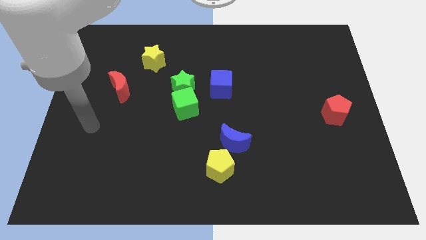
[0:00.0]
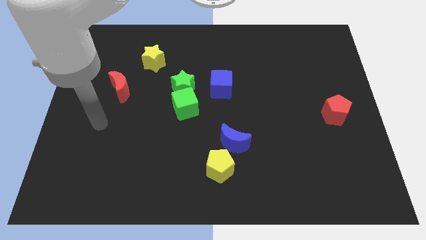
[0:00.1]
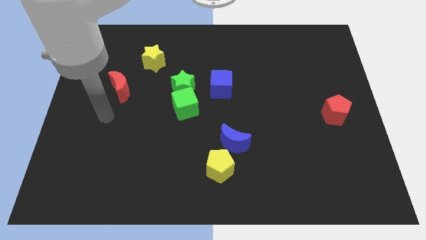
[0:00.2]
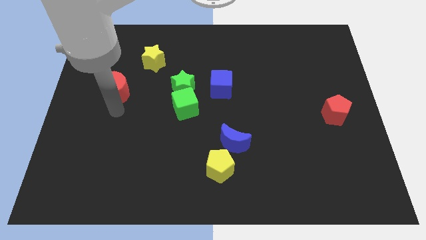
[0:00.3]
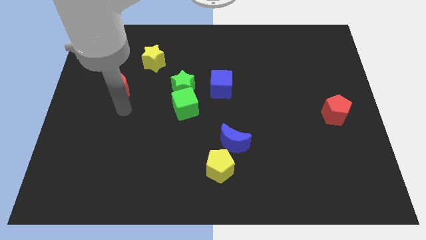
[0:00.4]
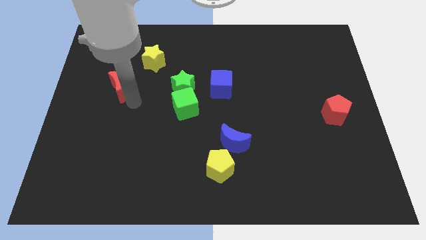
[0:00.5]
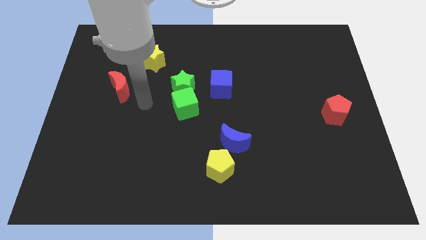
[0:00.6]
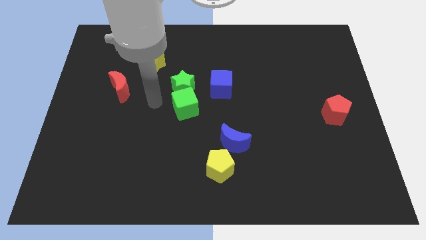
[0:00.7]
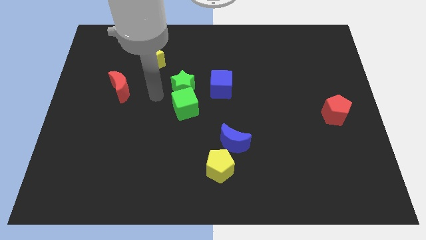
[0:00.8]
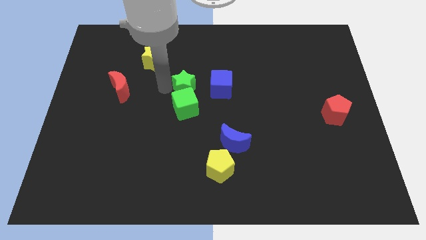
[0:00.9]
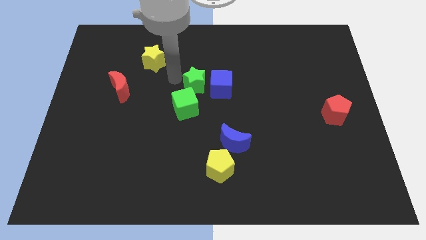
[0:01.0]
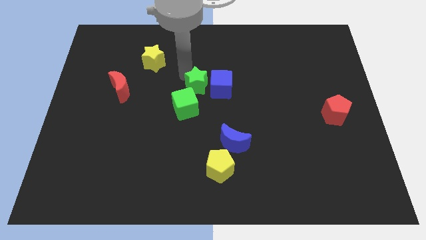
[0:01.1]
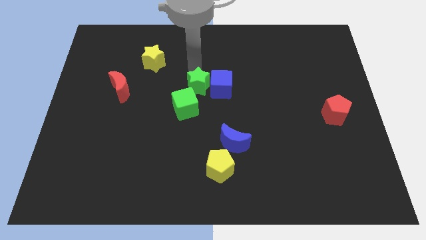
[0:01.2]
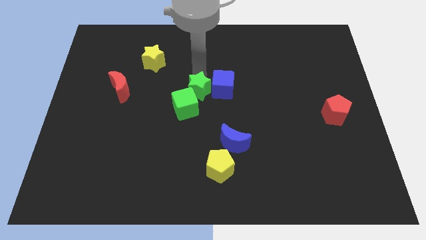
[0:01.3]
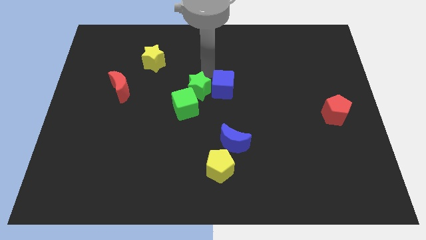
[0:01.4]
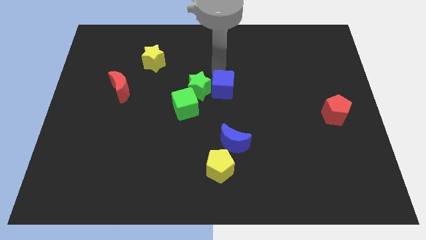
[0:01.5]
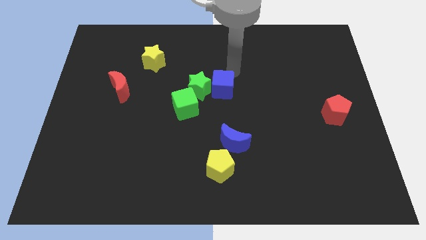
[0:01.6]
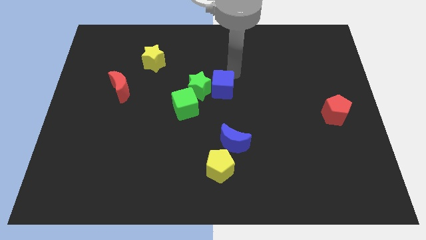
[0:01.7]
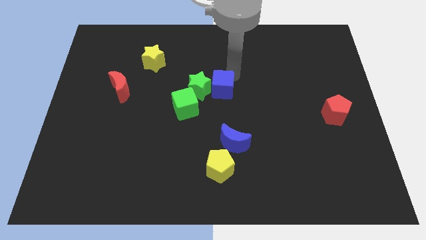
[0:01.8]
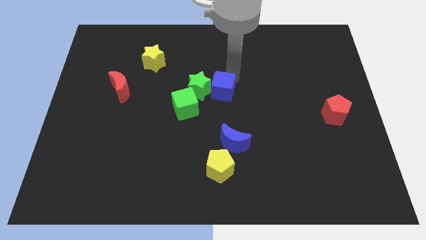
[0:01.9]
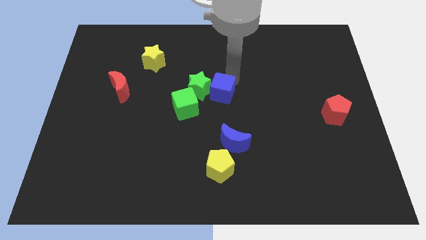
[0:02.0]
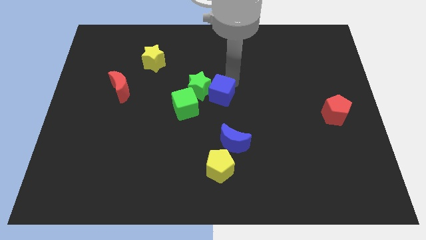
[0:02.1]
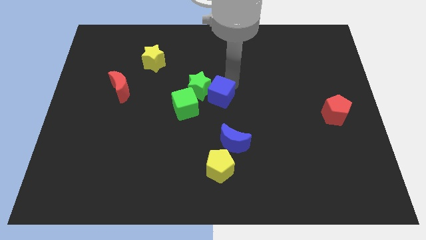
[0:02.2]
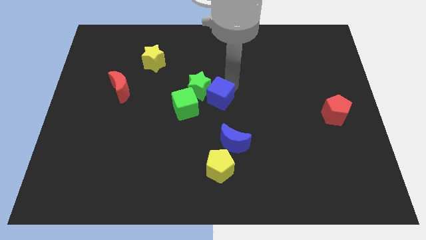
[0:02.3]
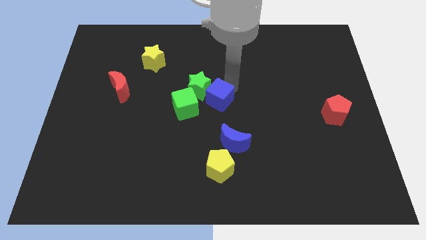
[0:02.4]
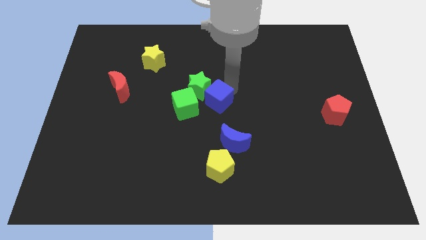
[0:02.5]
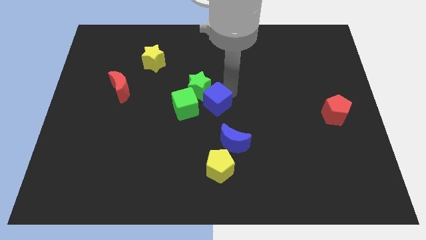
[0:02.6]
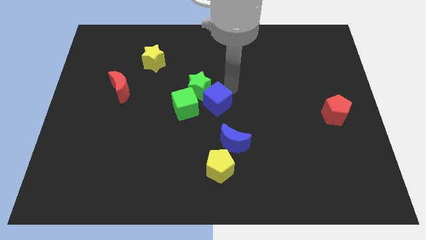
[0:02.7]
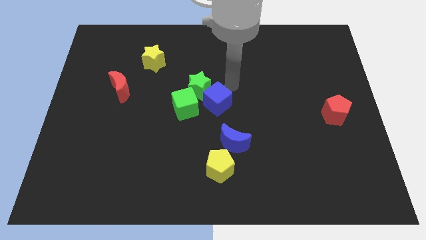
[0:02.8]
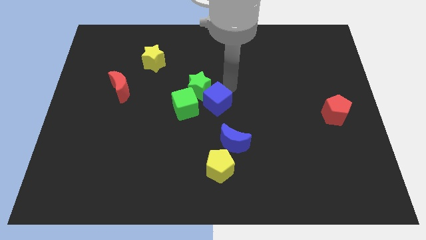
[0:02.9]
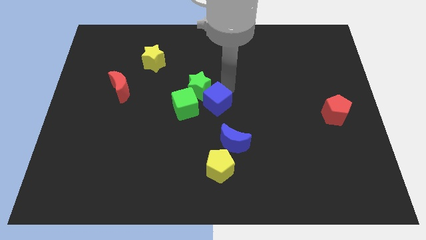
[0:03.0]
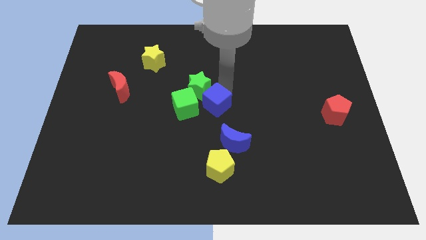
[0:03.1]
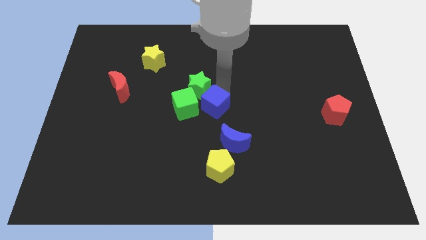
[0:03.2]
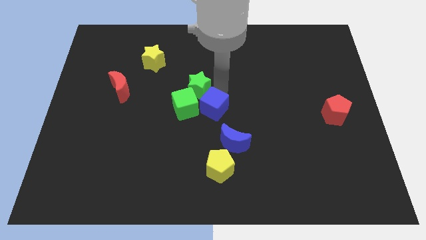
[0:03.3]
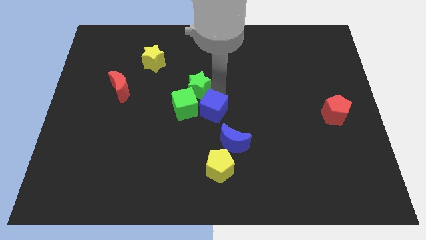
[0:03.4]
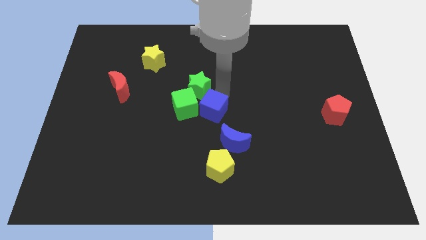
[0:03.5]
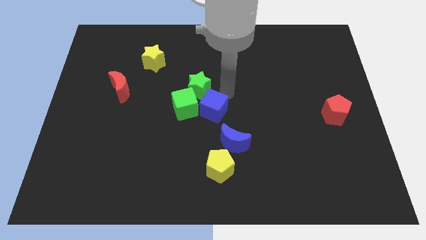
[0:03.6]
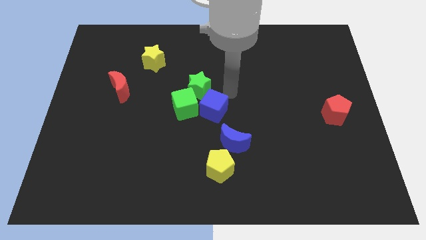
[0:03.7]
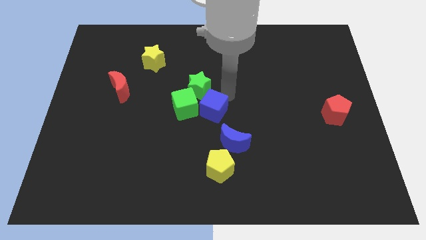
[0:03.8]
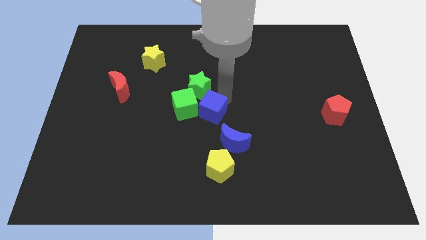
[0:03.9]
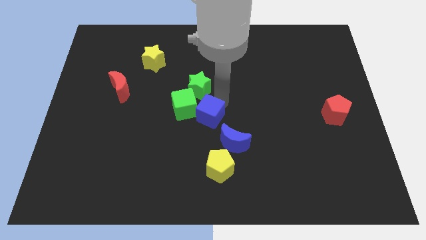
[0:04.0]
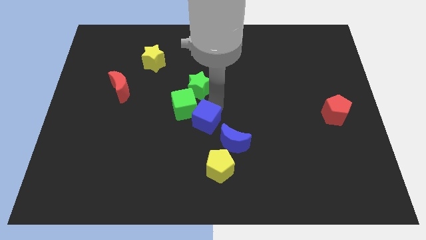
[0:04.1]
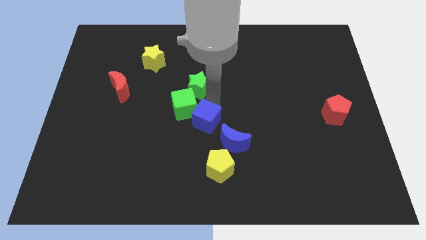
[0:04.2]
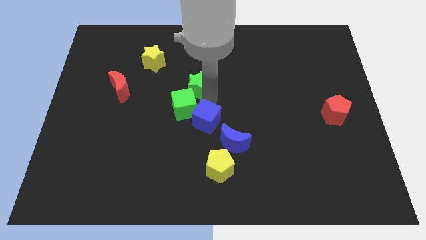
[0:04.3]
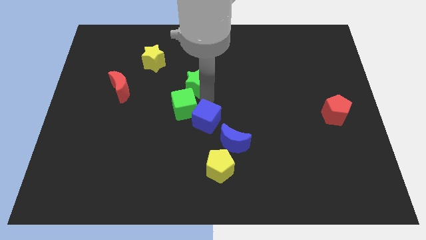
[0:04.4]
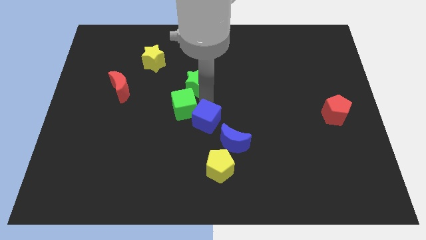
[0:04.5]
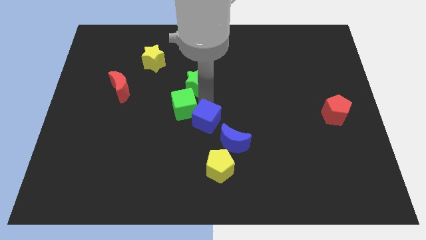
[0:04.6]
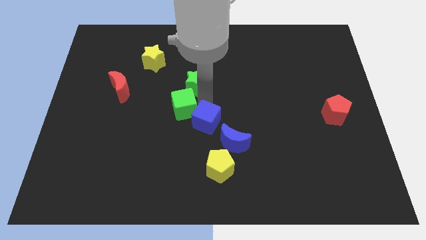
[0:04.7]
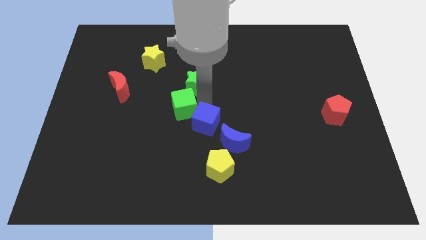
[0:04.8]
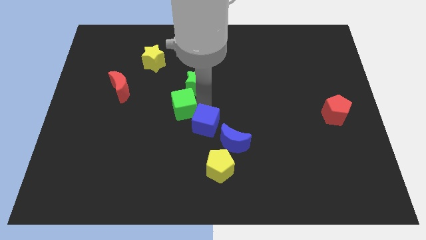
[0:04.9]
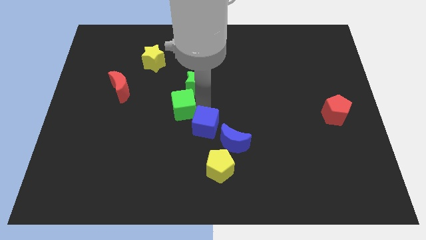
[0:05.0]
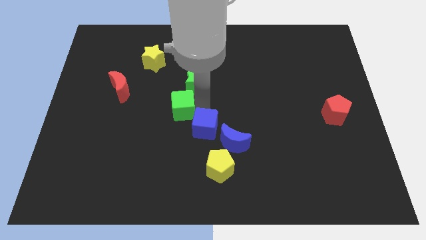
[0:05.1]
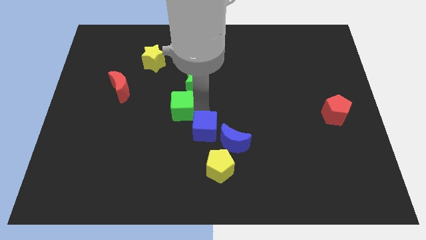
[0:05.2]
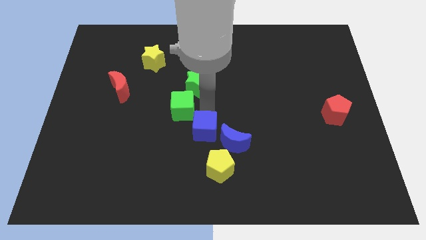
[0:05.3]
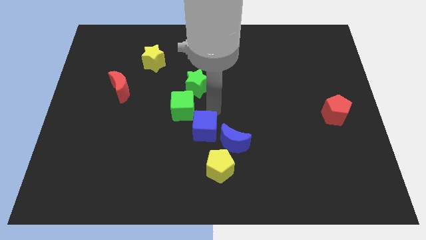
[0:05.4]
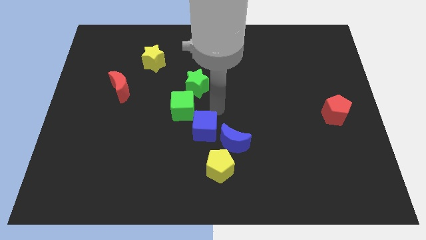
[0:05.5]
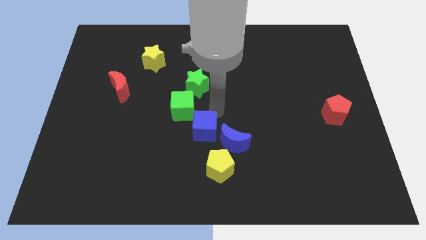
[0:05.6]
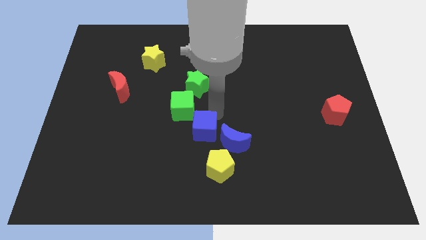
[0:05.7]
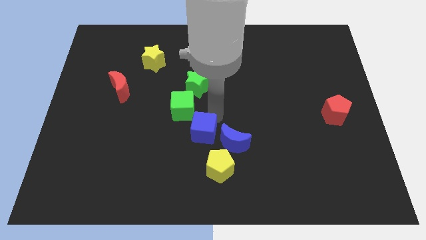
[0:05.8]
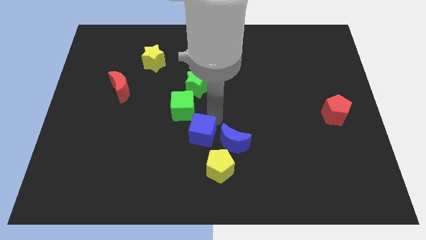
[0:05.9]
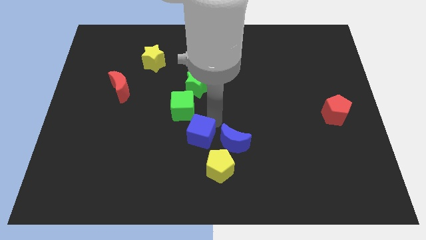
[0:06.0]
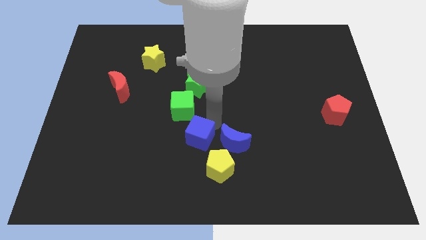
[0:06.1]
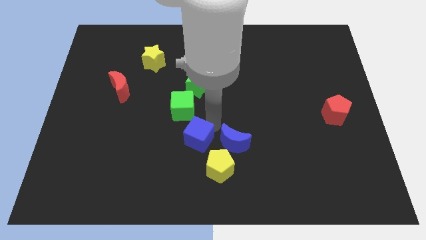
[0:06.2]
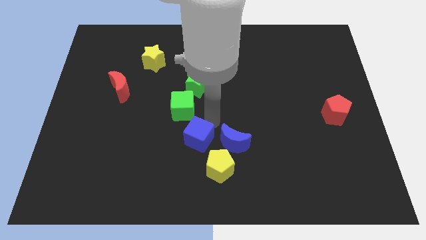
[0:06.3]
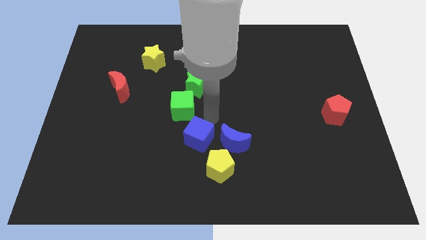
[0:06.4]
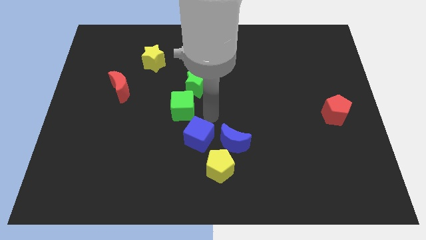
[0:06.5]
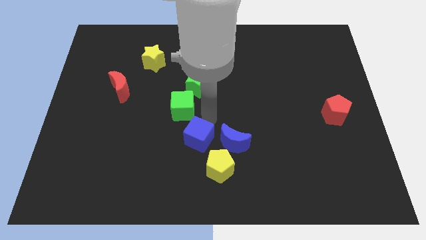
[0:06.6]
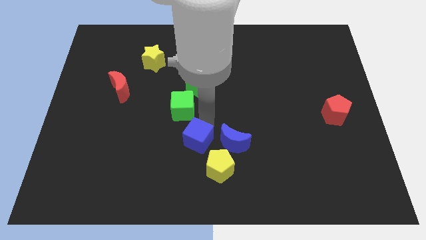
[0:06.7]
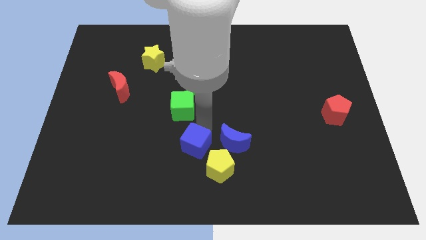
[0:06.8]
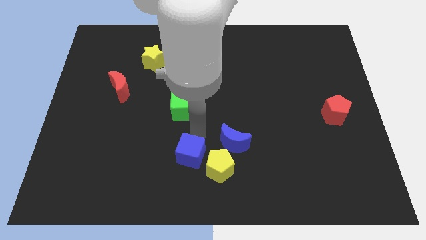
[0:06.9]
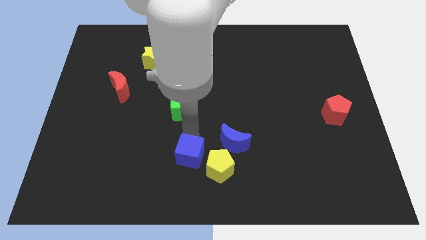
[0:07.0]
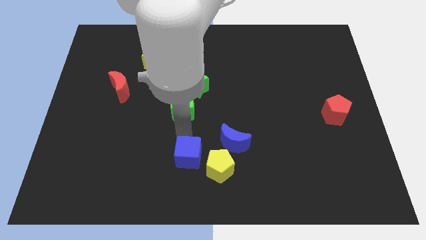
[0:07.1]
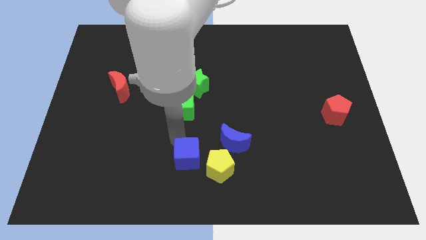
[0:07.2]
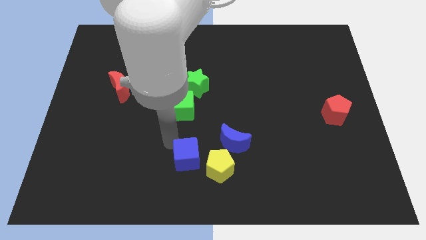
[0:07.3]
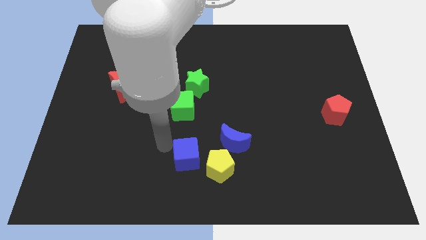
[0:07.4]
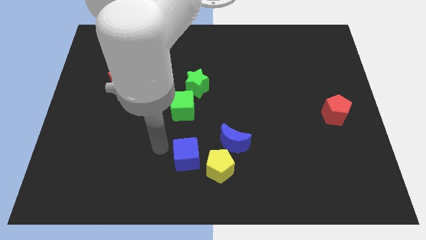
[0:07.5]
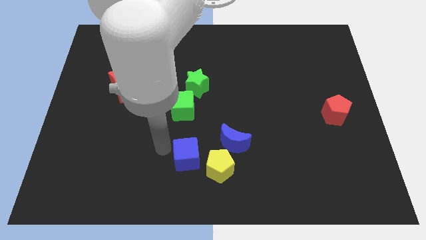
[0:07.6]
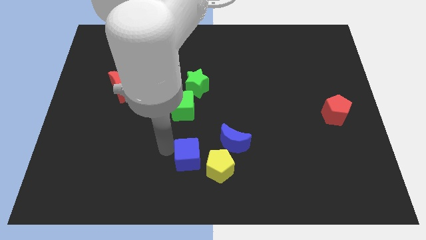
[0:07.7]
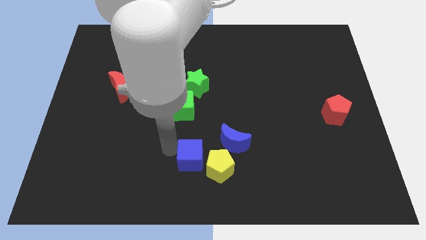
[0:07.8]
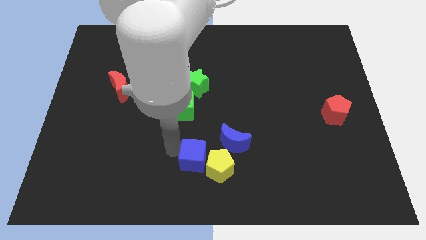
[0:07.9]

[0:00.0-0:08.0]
put the blue cube close to the yellow pentagon
